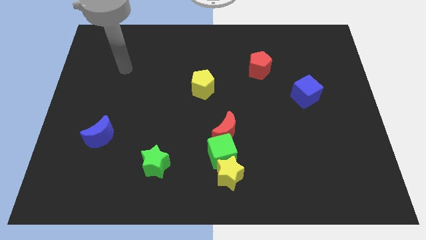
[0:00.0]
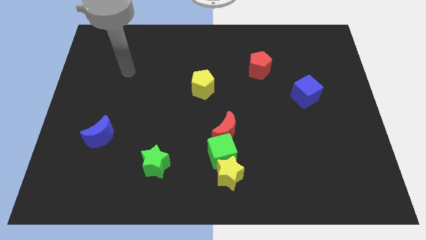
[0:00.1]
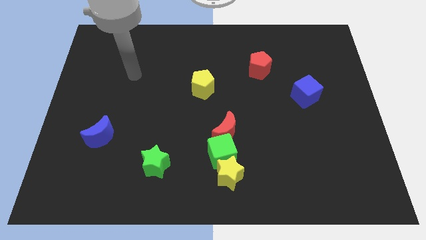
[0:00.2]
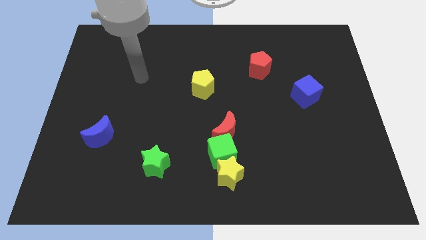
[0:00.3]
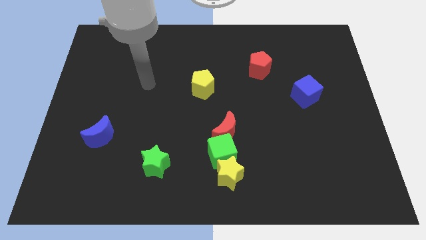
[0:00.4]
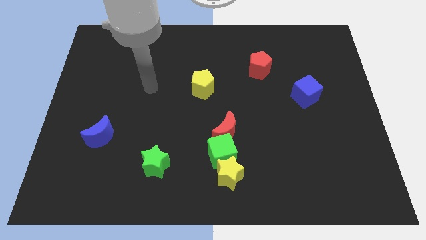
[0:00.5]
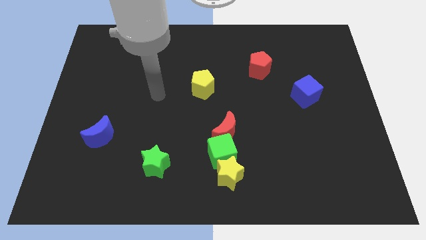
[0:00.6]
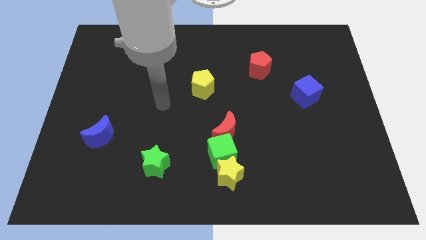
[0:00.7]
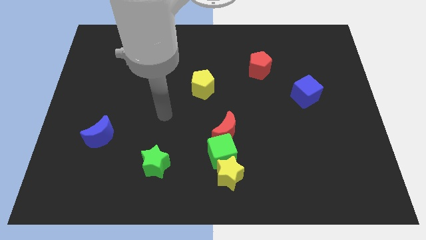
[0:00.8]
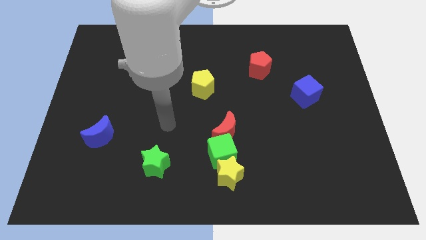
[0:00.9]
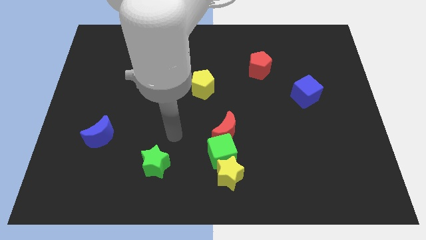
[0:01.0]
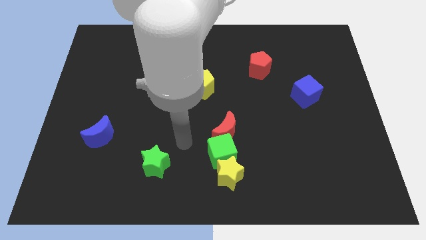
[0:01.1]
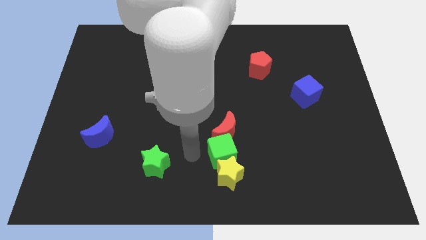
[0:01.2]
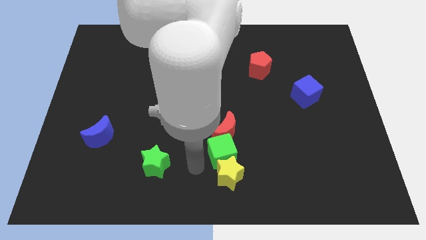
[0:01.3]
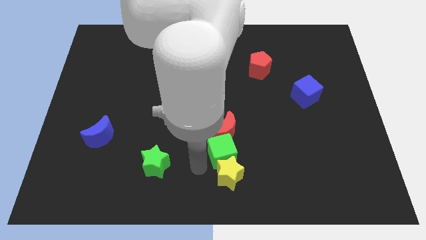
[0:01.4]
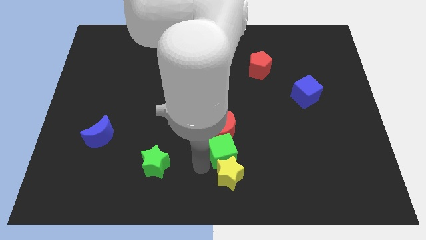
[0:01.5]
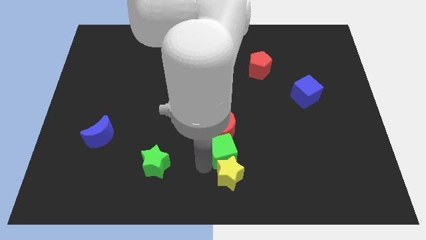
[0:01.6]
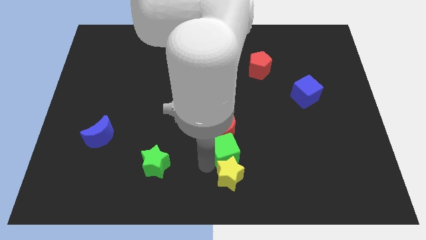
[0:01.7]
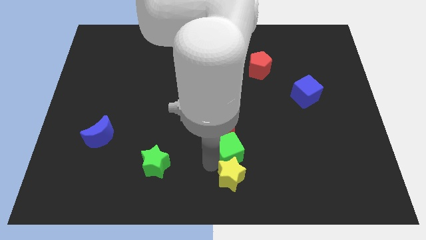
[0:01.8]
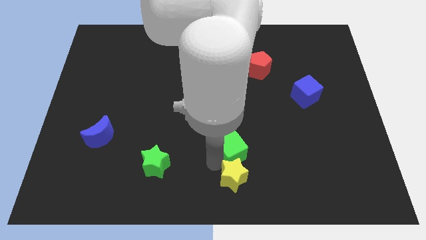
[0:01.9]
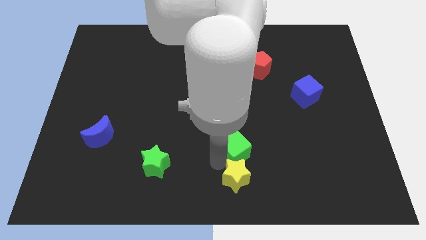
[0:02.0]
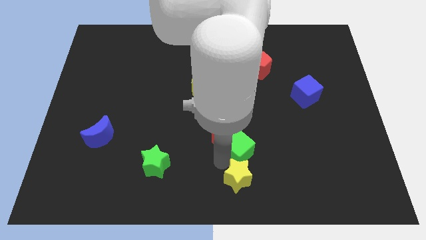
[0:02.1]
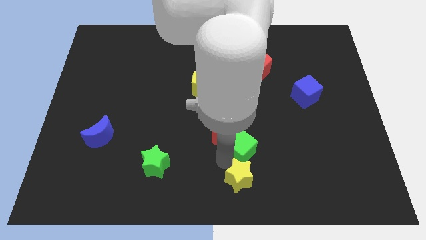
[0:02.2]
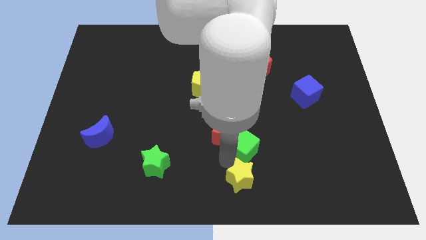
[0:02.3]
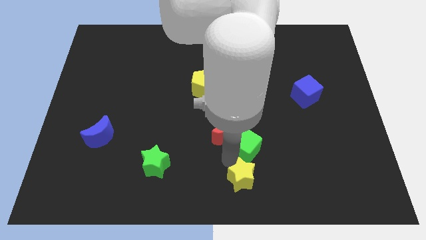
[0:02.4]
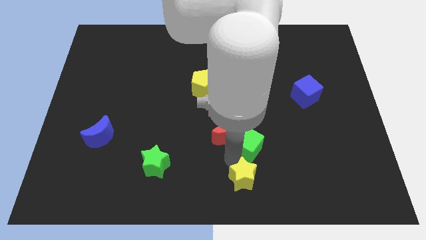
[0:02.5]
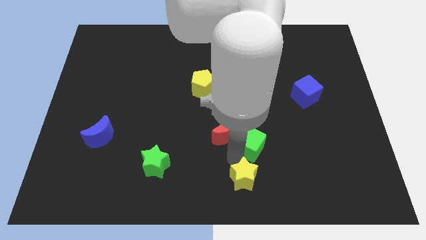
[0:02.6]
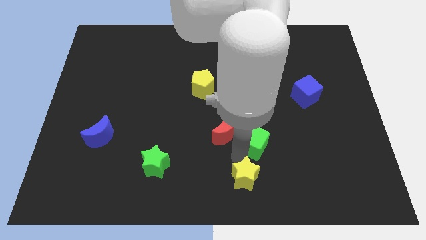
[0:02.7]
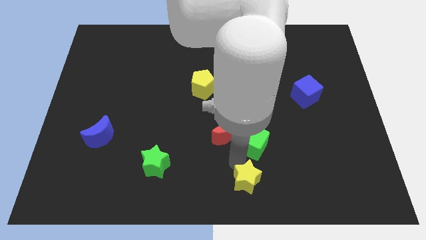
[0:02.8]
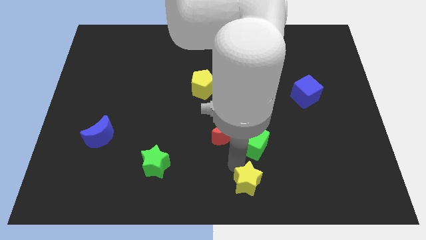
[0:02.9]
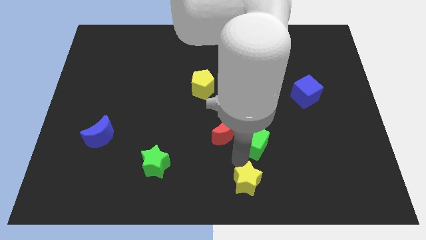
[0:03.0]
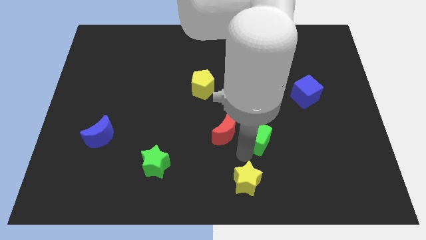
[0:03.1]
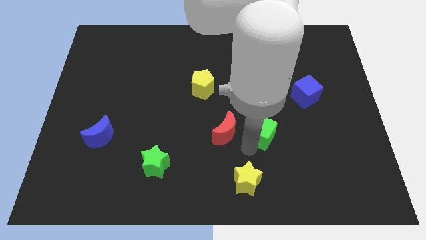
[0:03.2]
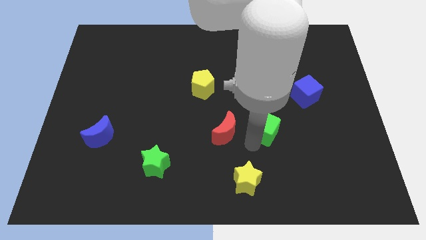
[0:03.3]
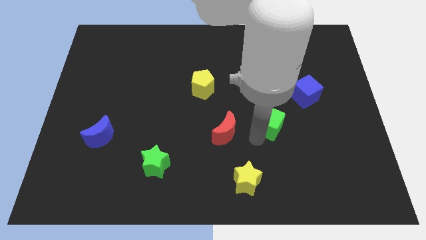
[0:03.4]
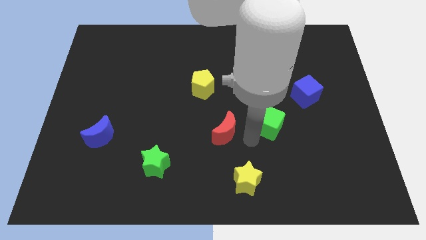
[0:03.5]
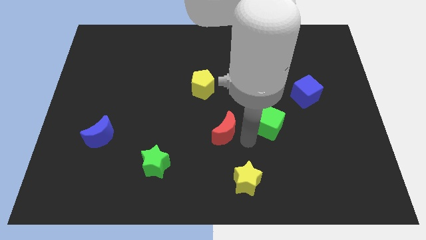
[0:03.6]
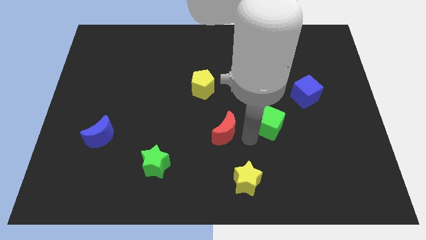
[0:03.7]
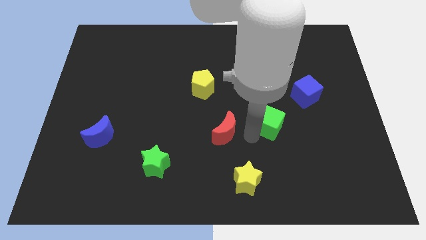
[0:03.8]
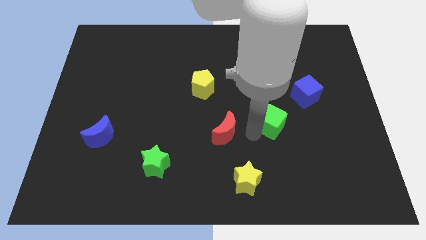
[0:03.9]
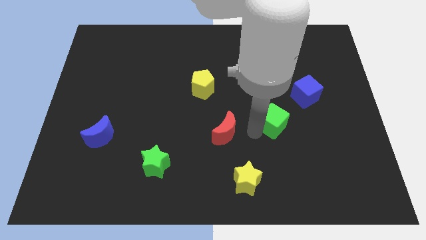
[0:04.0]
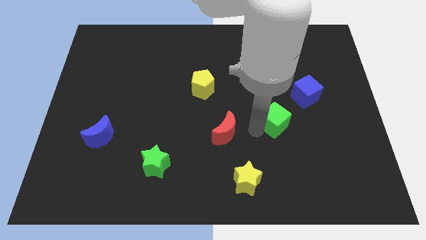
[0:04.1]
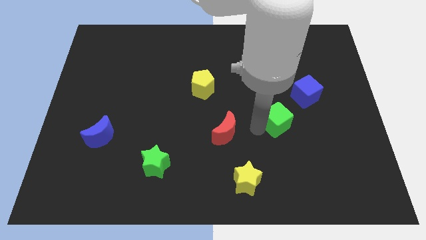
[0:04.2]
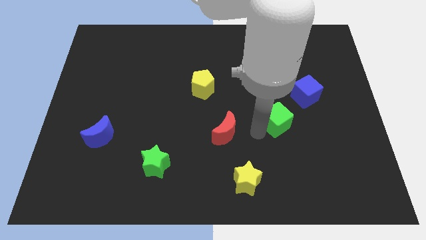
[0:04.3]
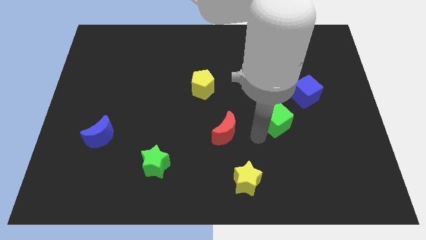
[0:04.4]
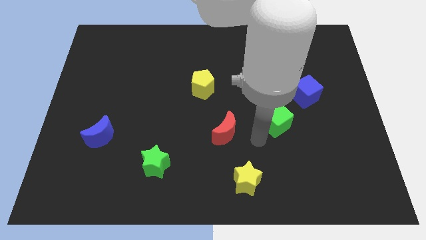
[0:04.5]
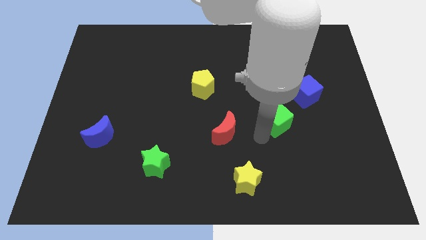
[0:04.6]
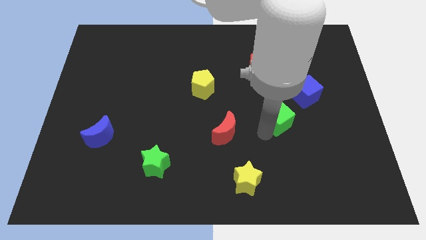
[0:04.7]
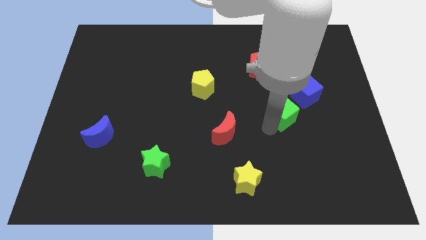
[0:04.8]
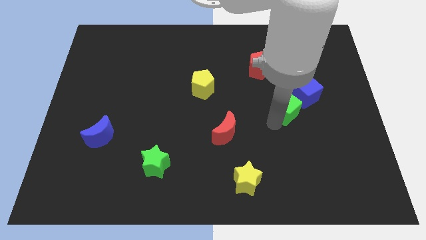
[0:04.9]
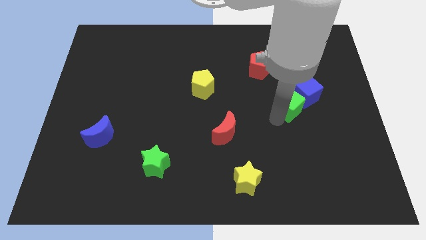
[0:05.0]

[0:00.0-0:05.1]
move the green cube to the blue cube

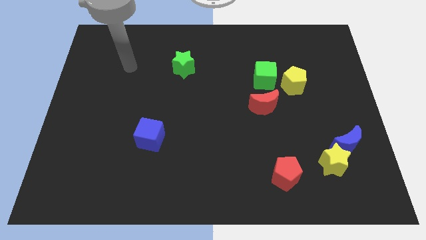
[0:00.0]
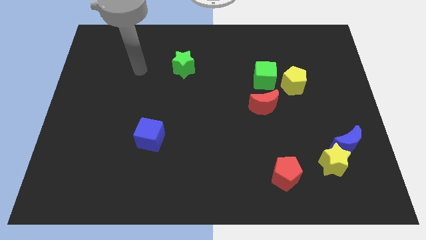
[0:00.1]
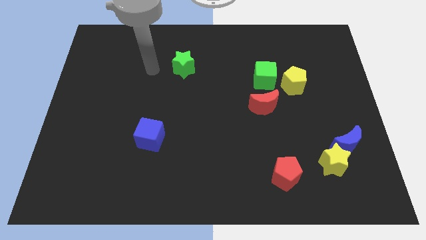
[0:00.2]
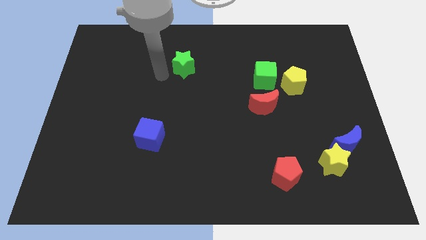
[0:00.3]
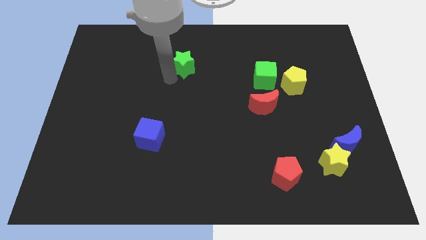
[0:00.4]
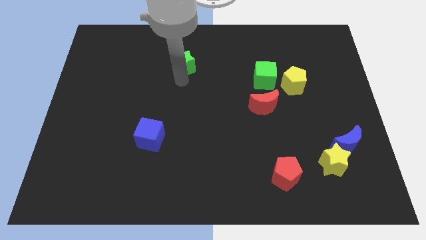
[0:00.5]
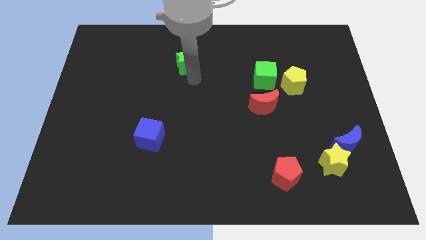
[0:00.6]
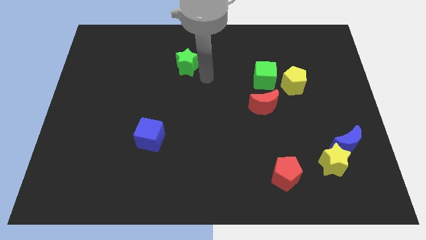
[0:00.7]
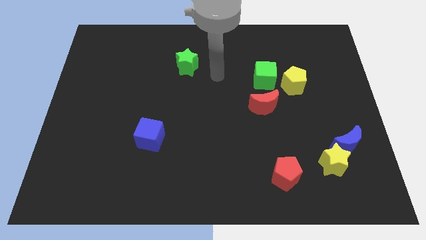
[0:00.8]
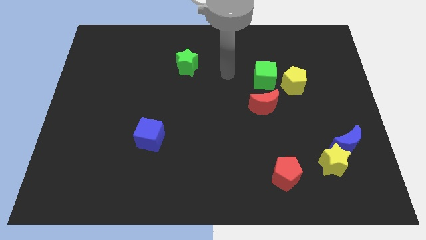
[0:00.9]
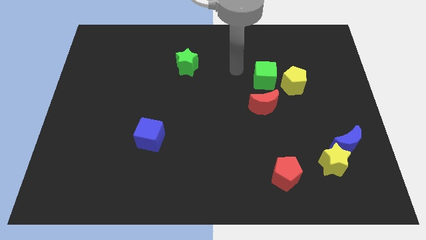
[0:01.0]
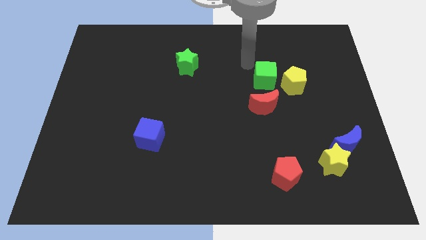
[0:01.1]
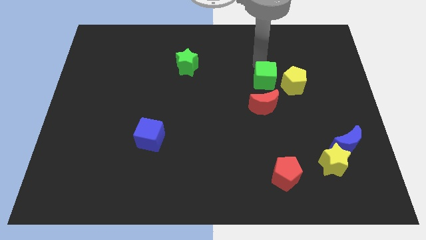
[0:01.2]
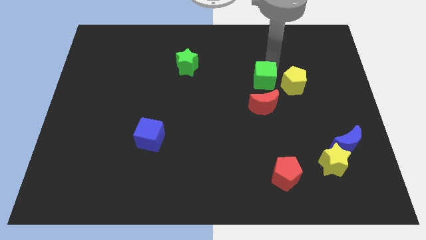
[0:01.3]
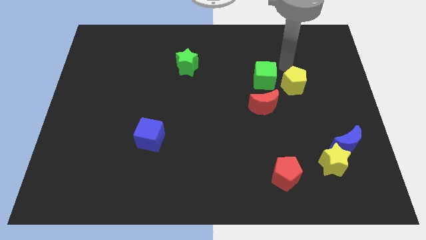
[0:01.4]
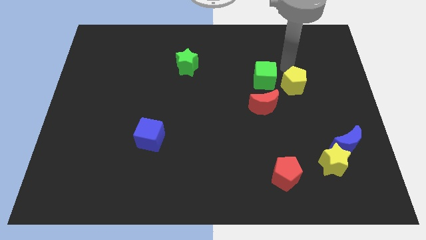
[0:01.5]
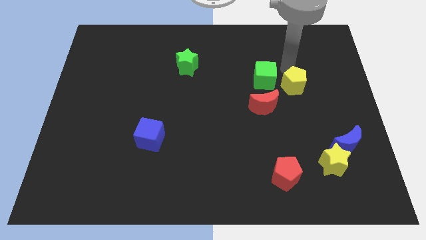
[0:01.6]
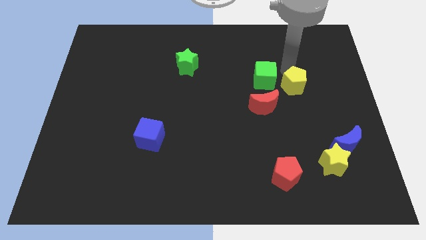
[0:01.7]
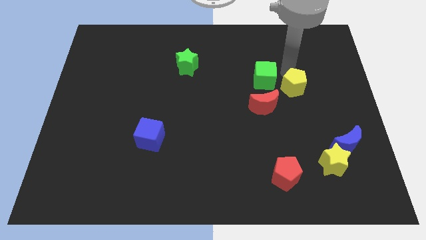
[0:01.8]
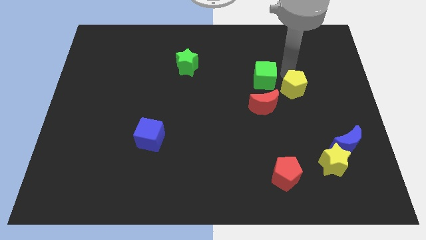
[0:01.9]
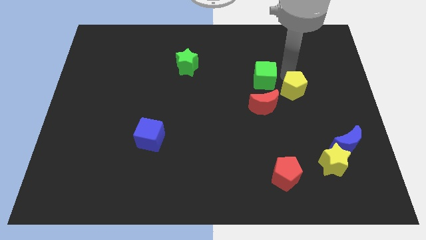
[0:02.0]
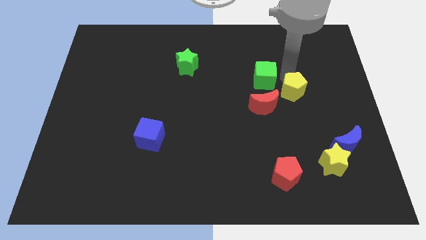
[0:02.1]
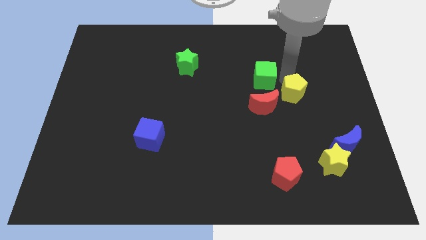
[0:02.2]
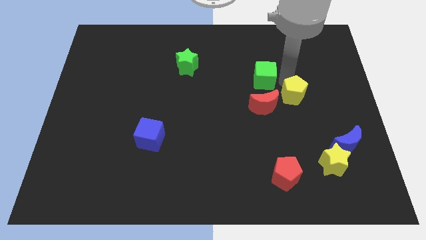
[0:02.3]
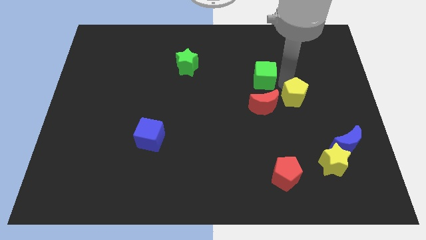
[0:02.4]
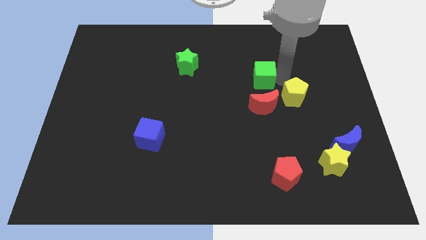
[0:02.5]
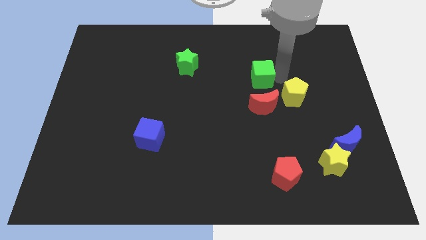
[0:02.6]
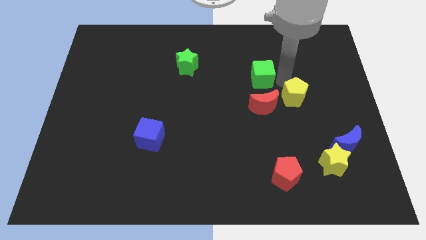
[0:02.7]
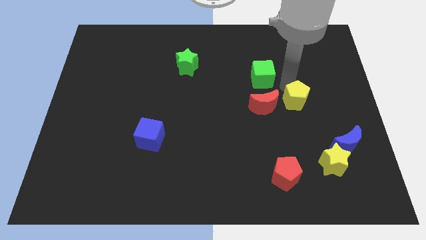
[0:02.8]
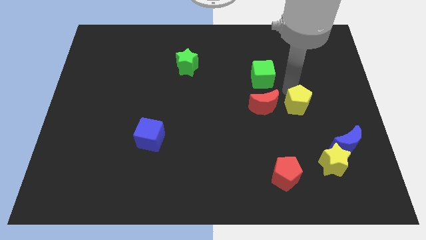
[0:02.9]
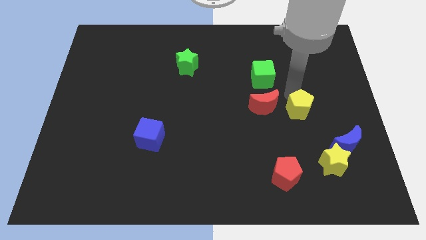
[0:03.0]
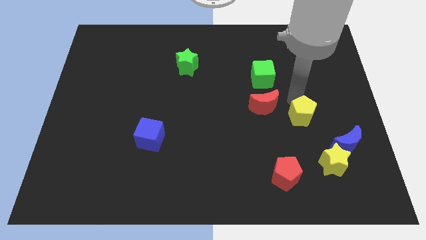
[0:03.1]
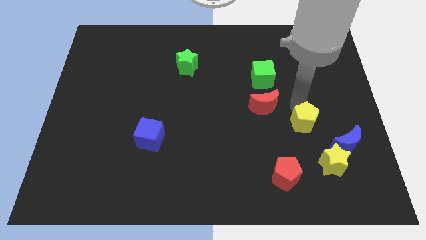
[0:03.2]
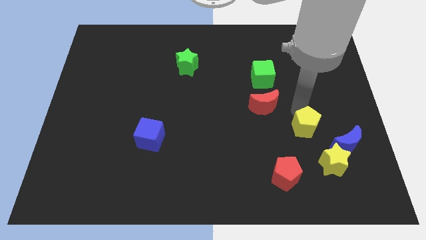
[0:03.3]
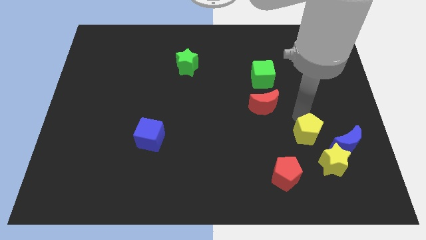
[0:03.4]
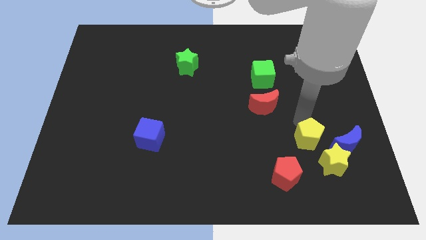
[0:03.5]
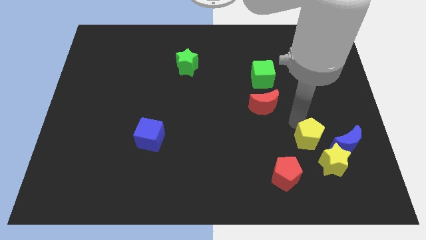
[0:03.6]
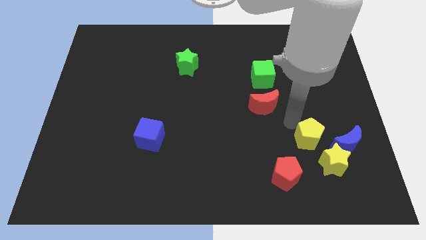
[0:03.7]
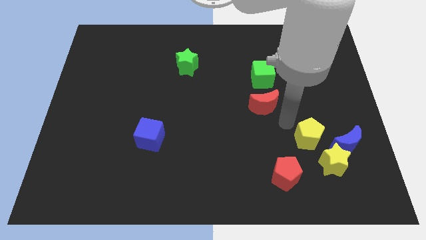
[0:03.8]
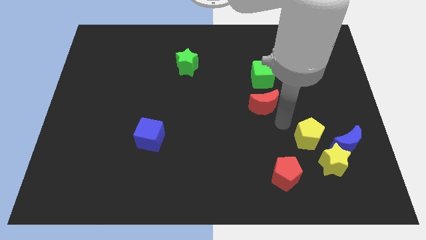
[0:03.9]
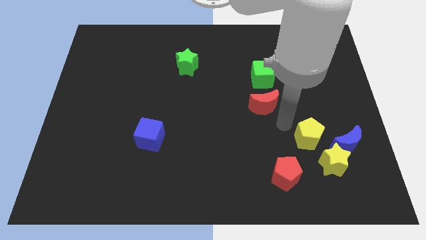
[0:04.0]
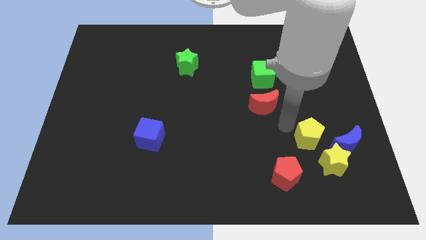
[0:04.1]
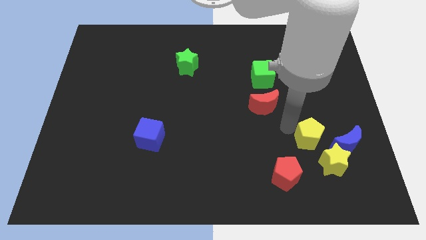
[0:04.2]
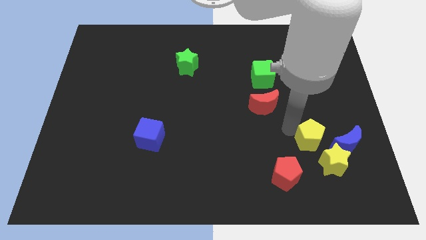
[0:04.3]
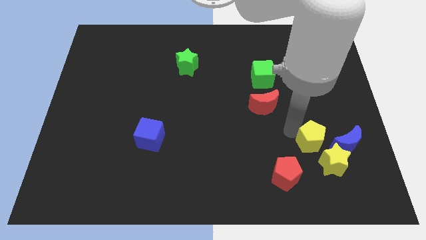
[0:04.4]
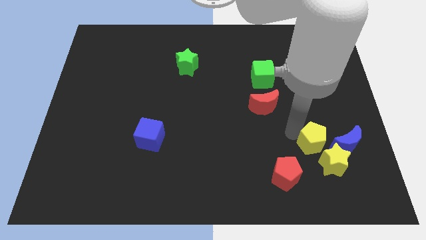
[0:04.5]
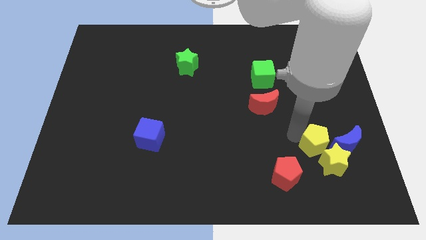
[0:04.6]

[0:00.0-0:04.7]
push the yellow pentagon close to the yellow star
